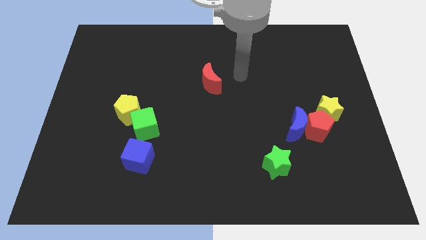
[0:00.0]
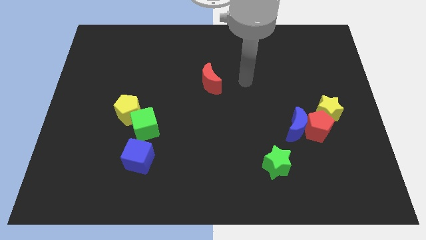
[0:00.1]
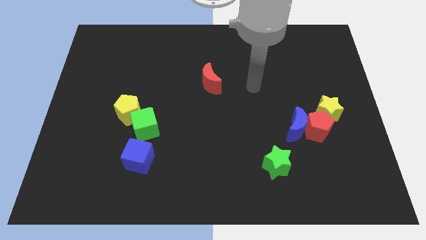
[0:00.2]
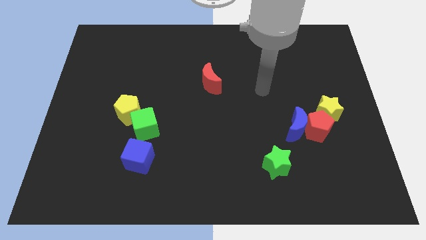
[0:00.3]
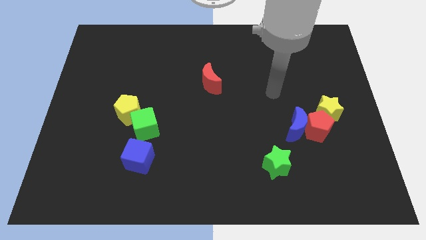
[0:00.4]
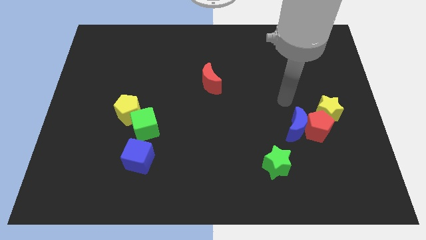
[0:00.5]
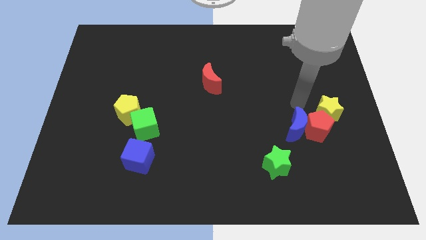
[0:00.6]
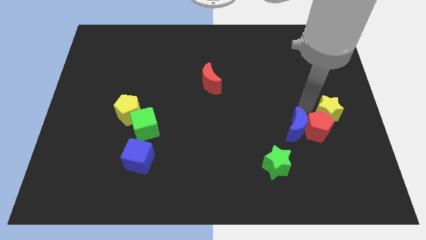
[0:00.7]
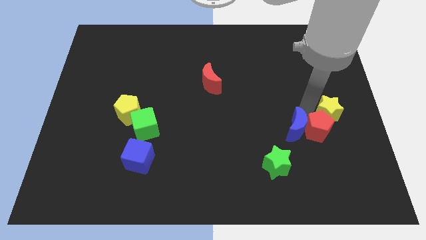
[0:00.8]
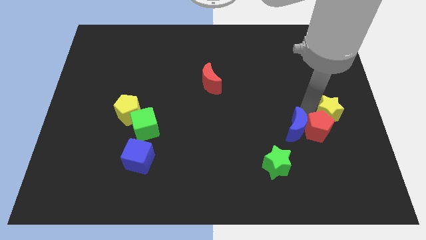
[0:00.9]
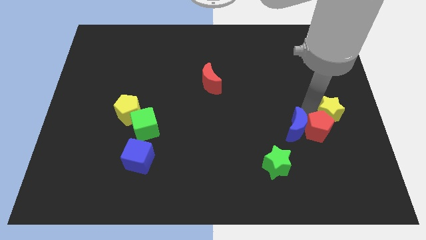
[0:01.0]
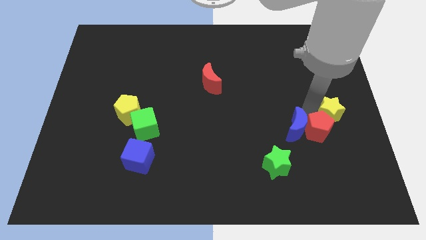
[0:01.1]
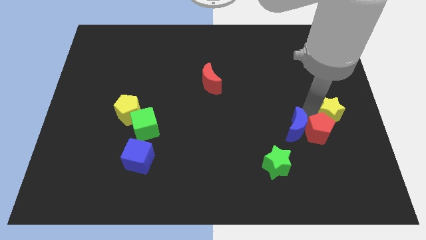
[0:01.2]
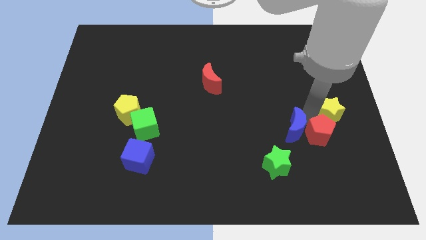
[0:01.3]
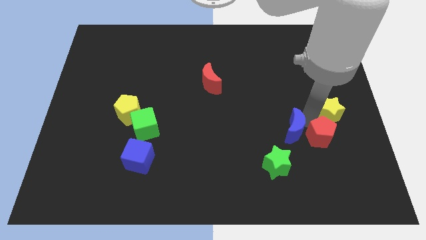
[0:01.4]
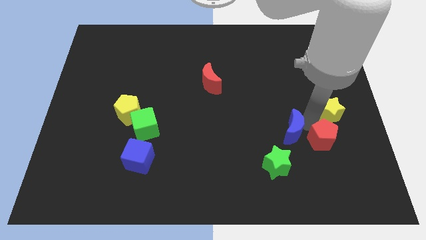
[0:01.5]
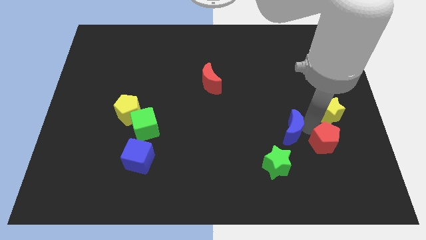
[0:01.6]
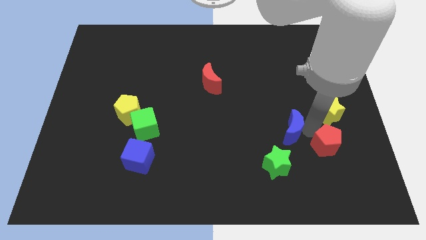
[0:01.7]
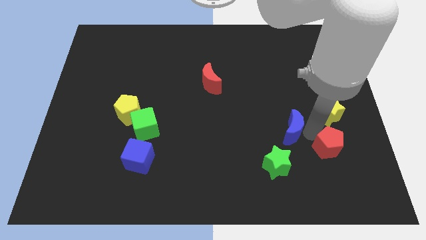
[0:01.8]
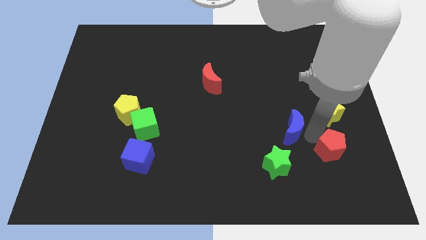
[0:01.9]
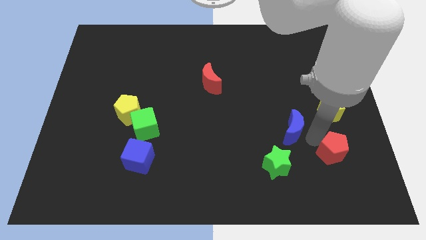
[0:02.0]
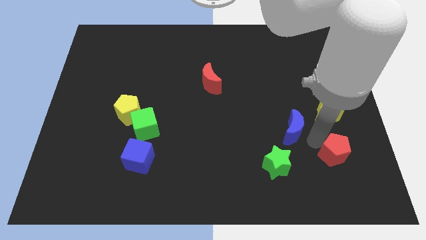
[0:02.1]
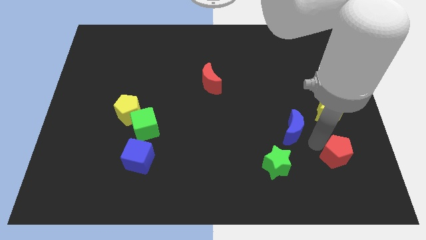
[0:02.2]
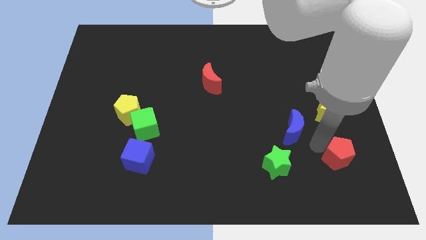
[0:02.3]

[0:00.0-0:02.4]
pull the red pentagon apart from the blue moon and yellow star

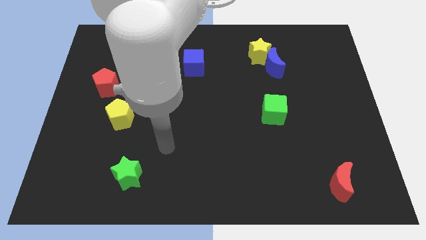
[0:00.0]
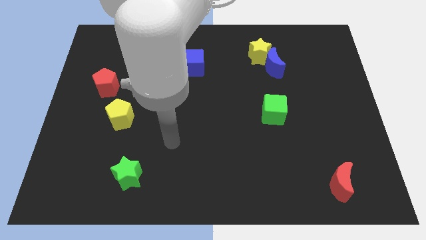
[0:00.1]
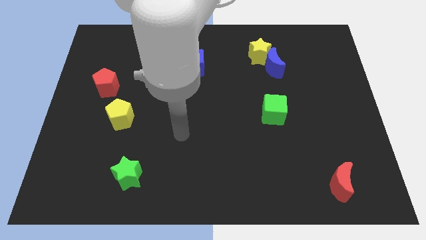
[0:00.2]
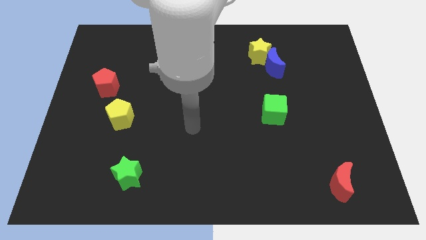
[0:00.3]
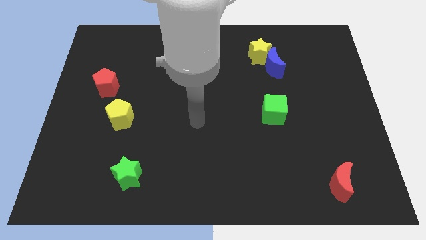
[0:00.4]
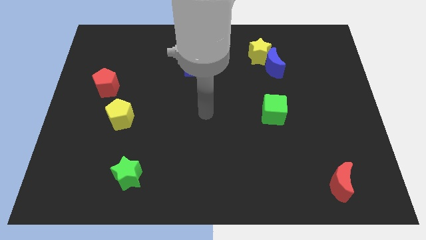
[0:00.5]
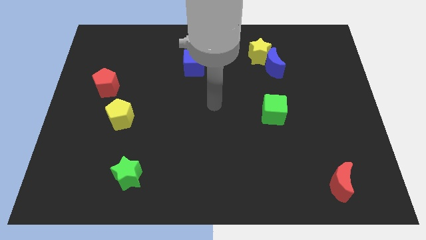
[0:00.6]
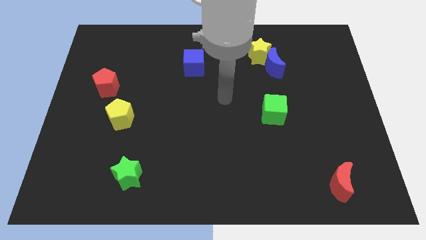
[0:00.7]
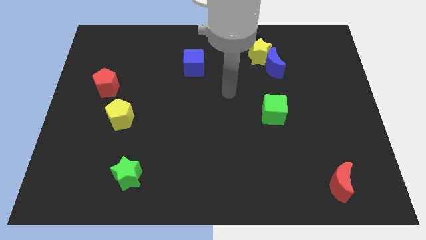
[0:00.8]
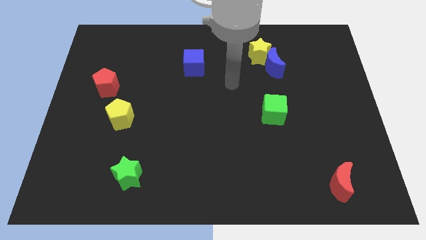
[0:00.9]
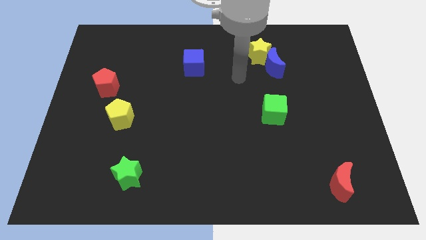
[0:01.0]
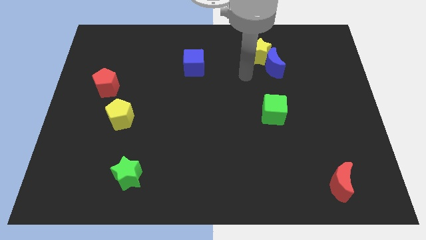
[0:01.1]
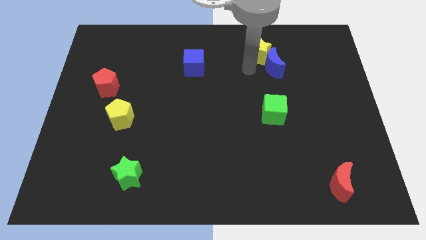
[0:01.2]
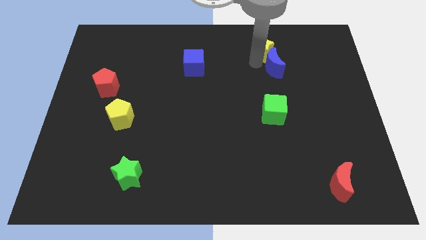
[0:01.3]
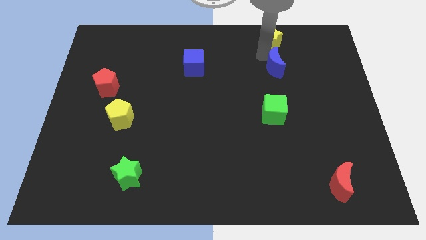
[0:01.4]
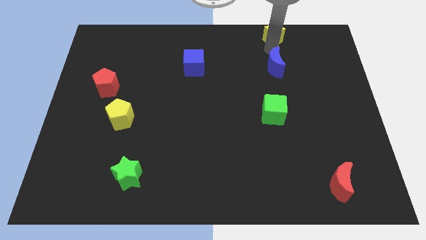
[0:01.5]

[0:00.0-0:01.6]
move the blue moon away from the yellow star

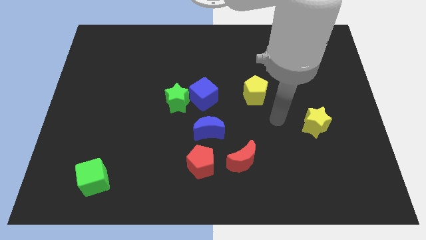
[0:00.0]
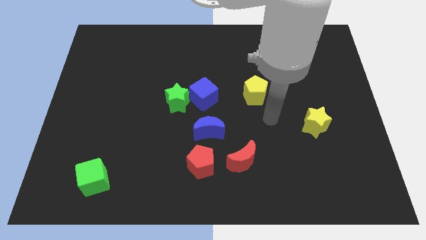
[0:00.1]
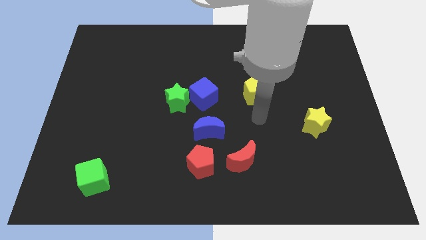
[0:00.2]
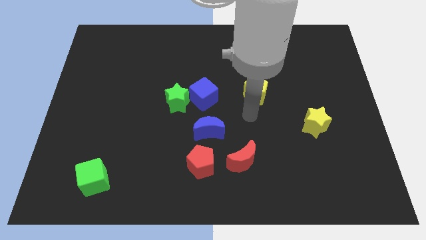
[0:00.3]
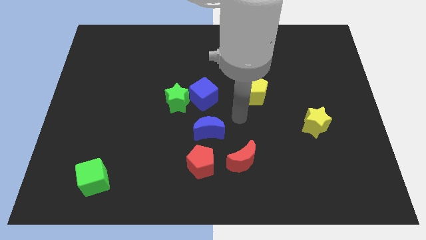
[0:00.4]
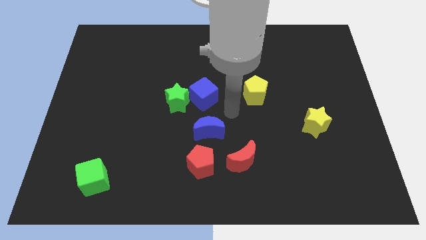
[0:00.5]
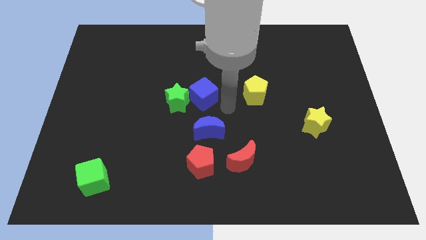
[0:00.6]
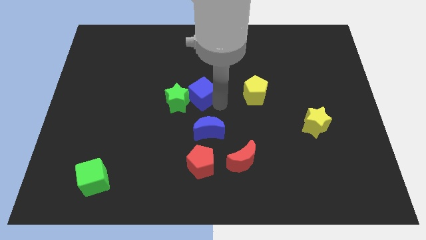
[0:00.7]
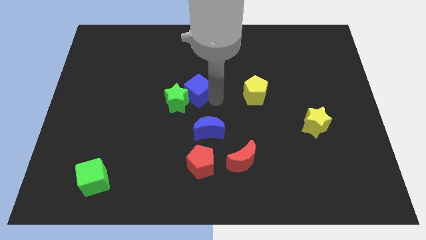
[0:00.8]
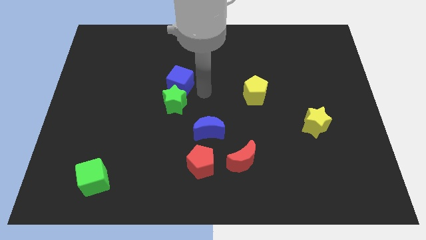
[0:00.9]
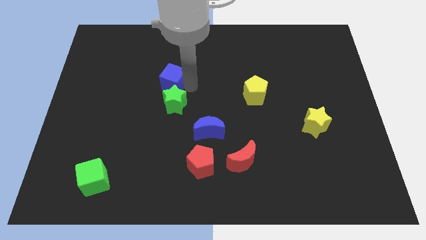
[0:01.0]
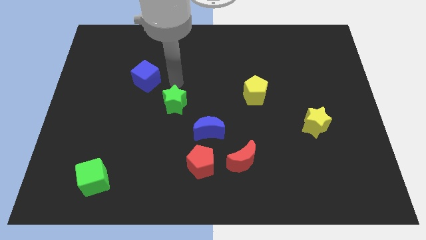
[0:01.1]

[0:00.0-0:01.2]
pull the green star apart from the blue cube

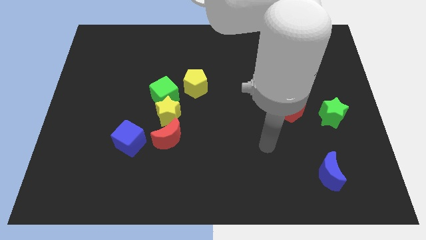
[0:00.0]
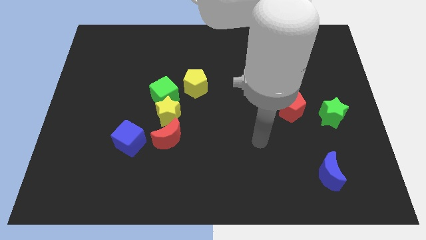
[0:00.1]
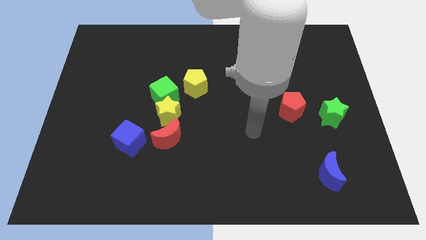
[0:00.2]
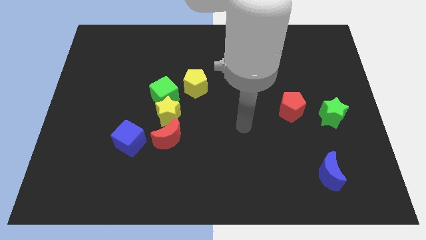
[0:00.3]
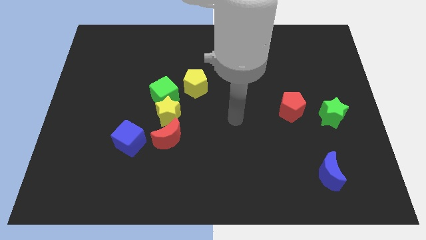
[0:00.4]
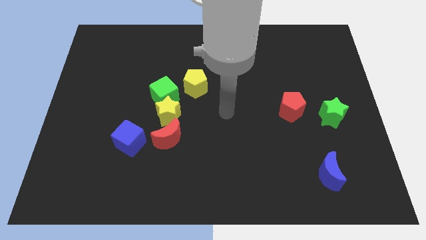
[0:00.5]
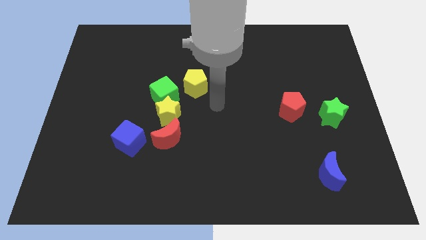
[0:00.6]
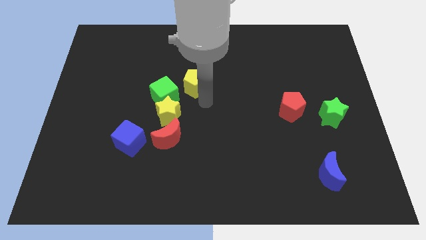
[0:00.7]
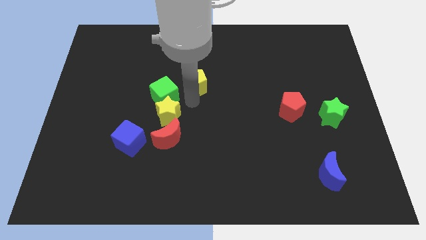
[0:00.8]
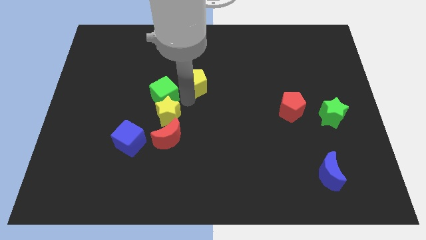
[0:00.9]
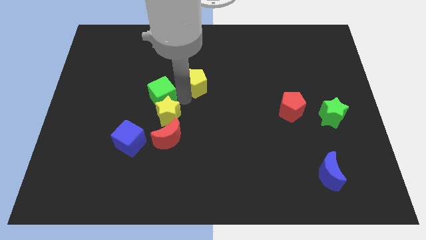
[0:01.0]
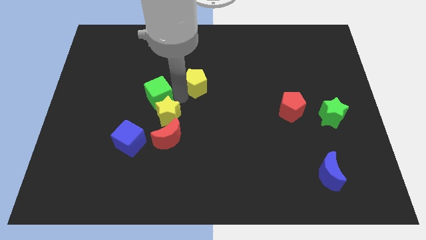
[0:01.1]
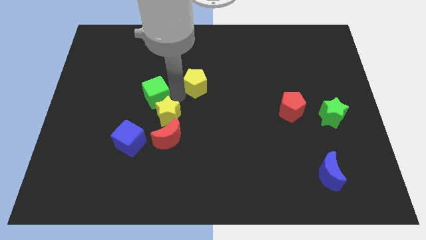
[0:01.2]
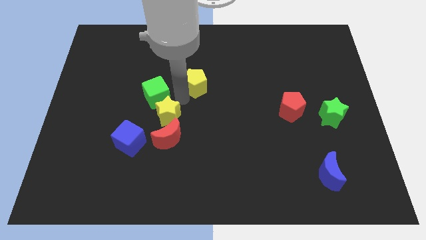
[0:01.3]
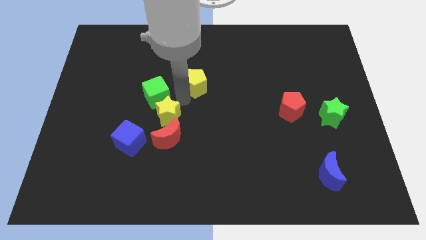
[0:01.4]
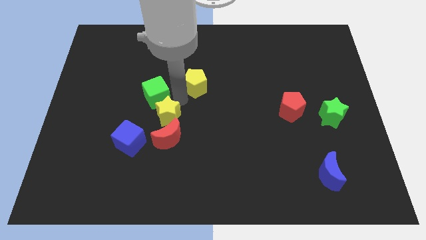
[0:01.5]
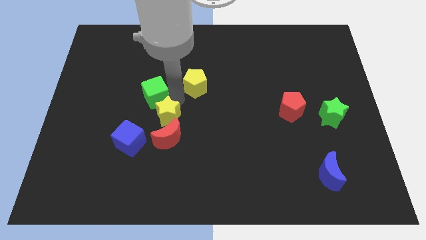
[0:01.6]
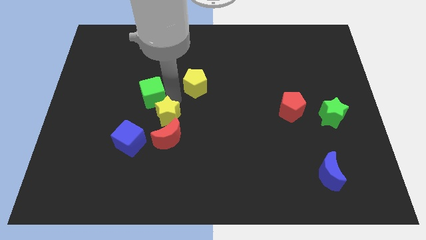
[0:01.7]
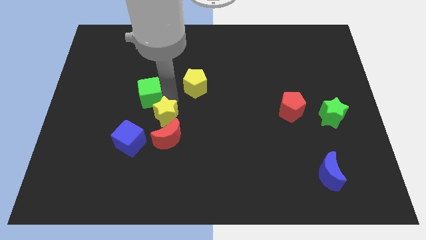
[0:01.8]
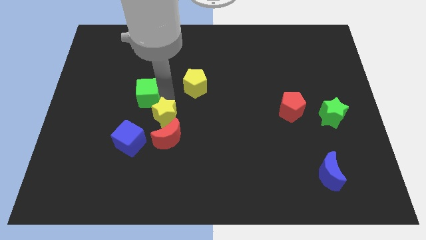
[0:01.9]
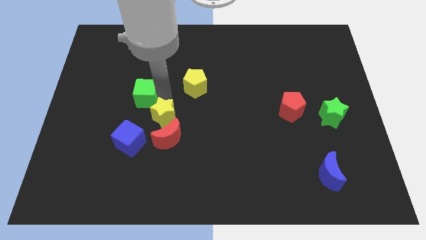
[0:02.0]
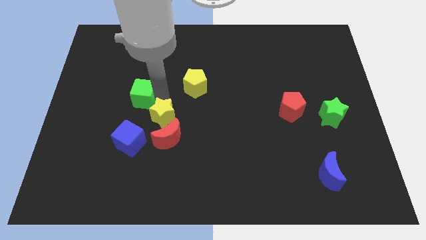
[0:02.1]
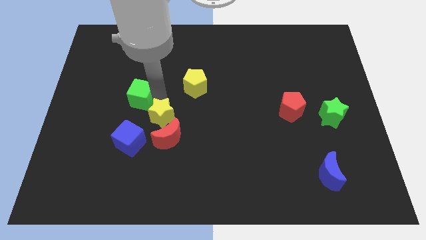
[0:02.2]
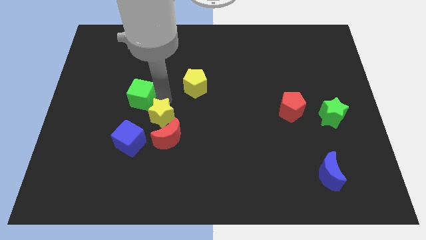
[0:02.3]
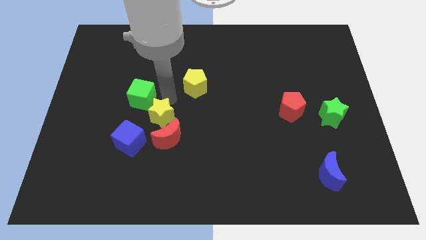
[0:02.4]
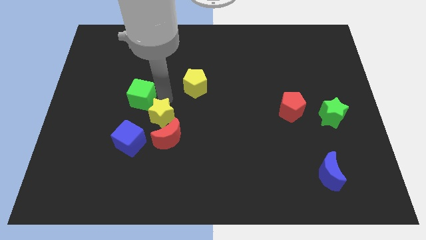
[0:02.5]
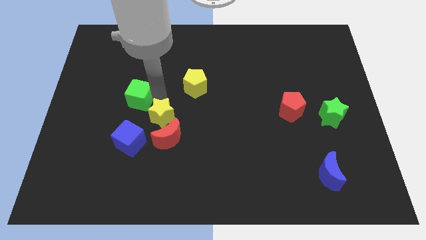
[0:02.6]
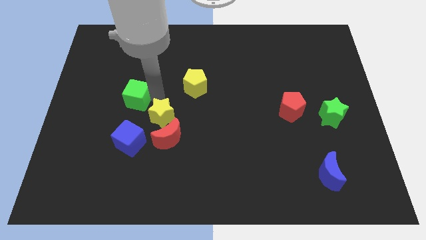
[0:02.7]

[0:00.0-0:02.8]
move the green cube away from the yellow star and yellow pentagon

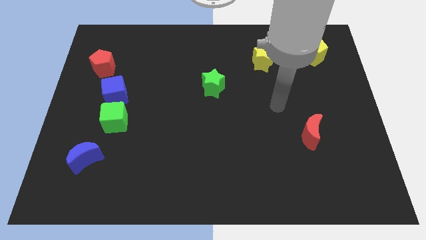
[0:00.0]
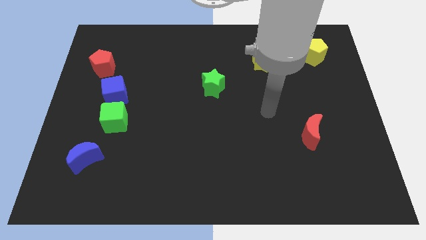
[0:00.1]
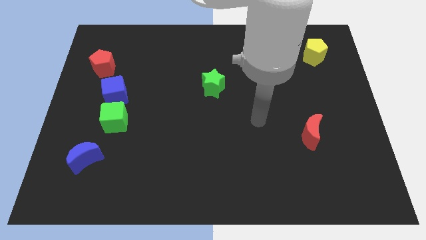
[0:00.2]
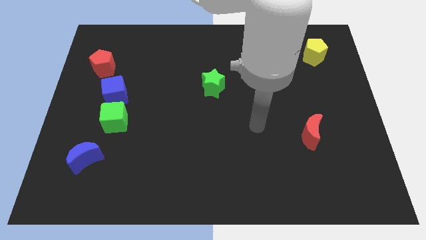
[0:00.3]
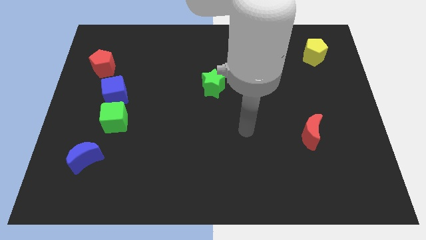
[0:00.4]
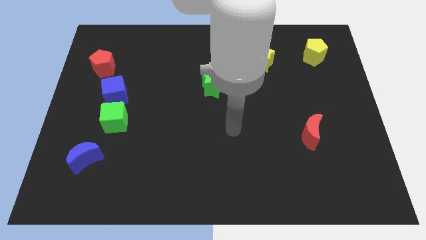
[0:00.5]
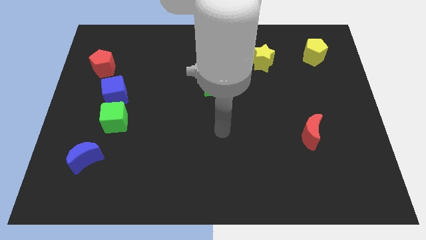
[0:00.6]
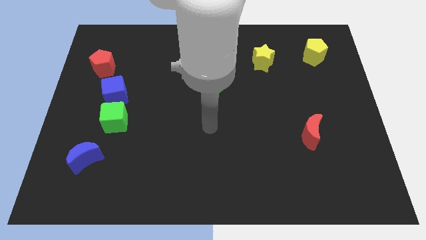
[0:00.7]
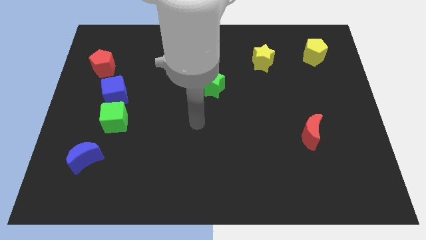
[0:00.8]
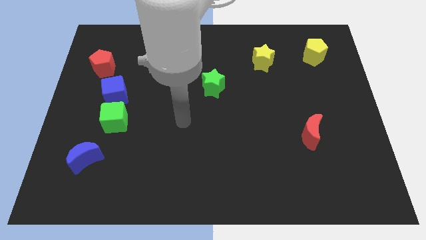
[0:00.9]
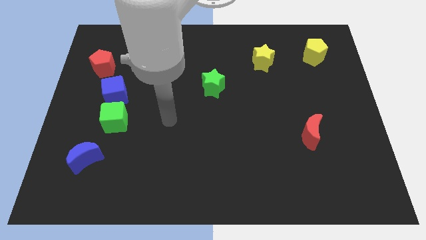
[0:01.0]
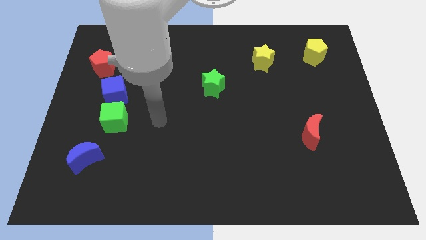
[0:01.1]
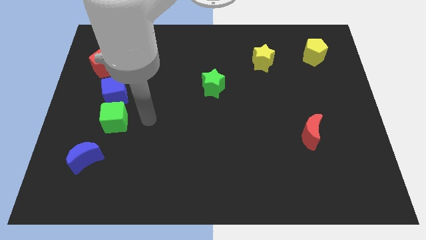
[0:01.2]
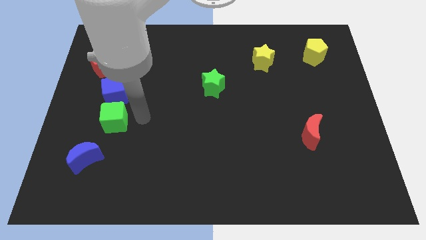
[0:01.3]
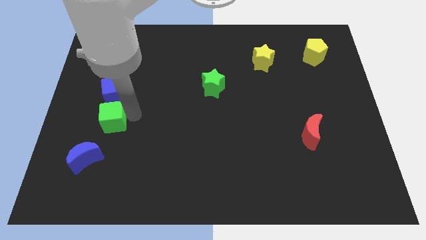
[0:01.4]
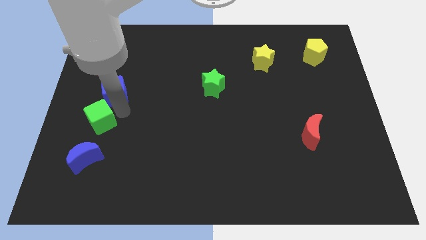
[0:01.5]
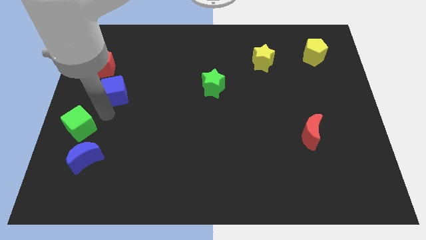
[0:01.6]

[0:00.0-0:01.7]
separate the blue cube from the green cube
